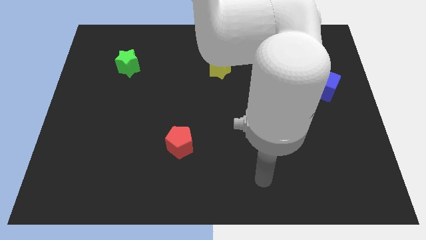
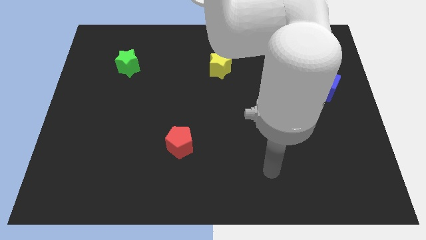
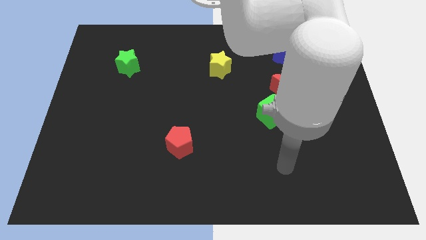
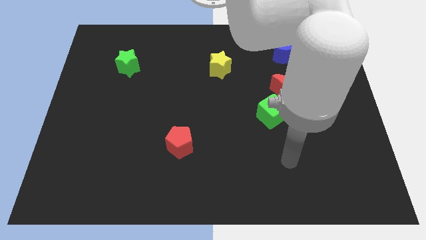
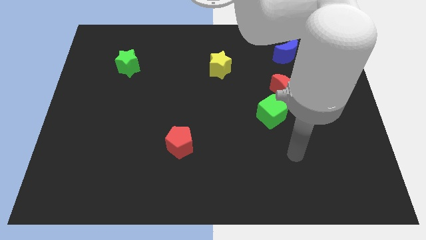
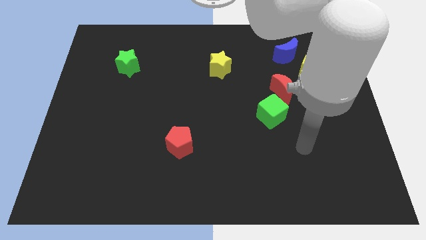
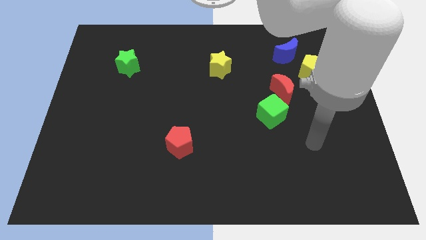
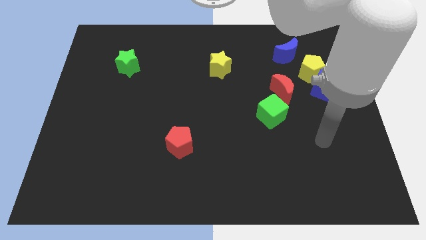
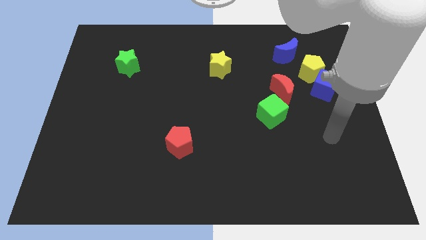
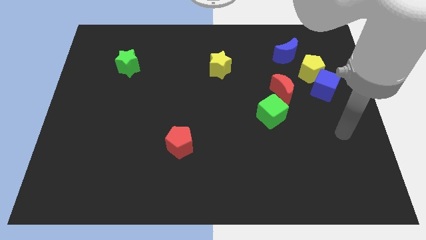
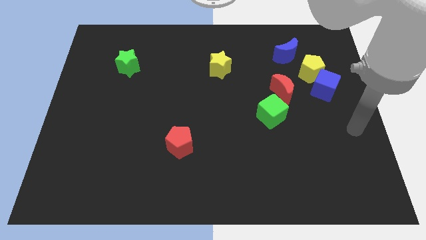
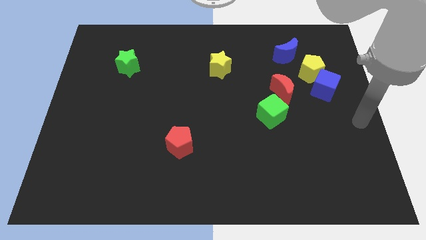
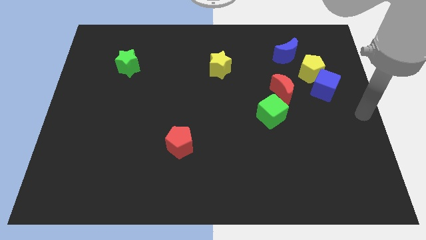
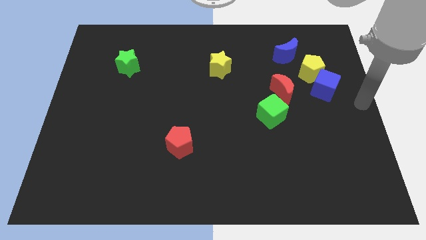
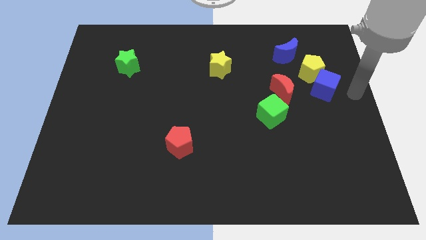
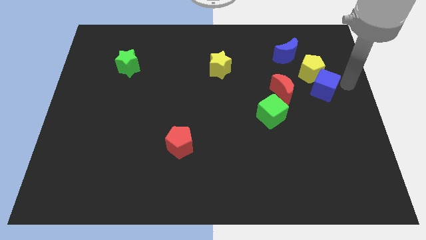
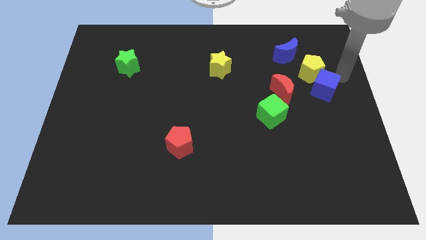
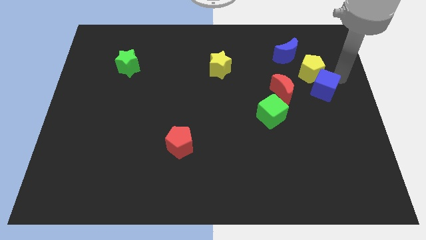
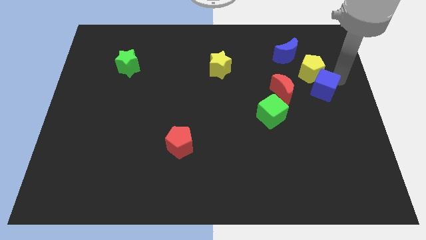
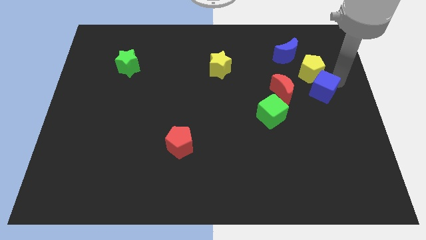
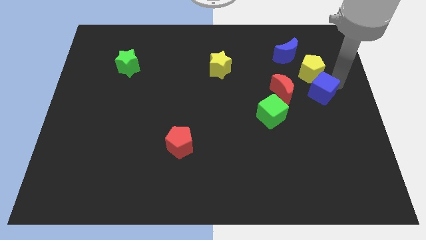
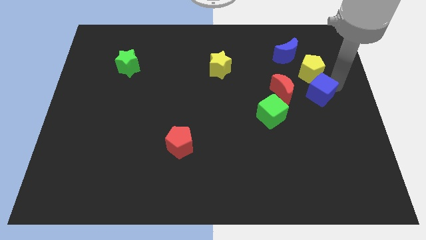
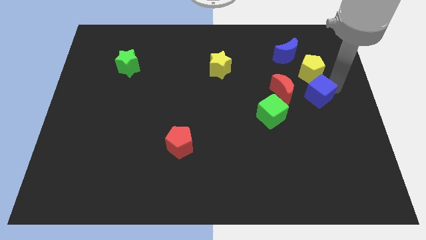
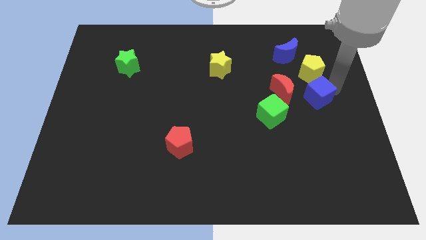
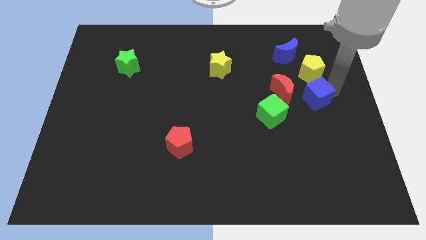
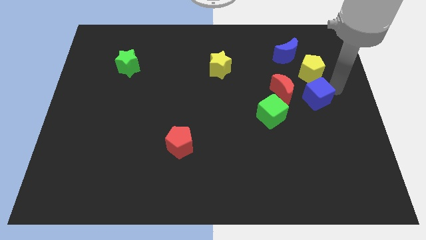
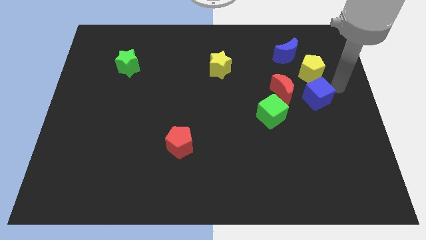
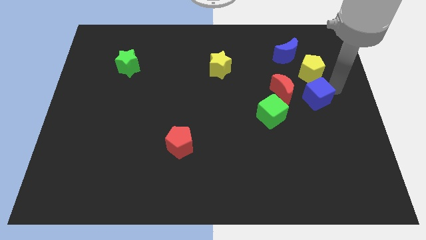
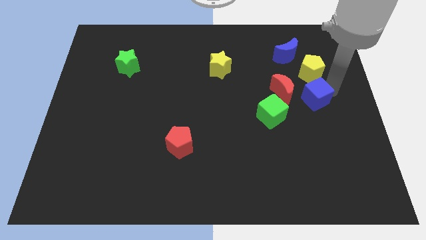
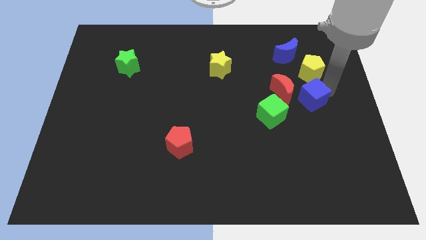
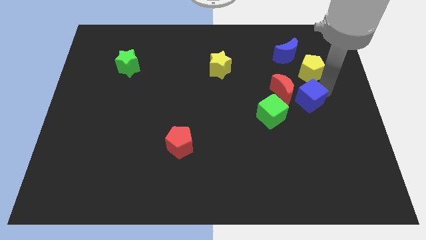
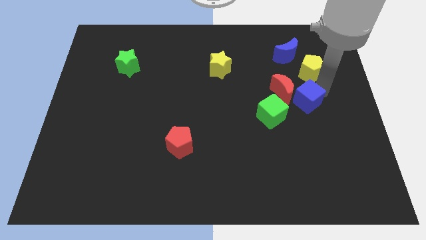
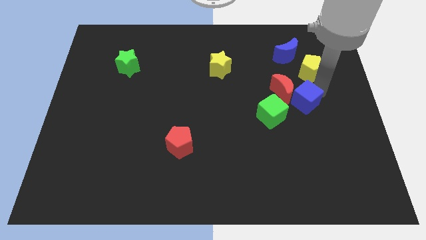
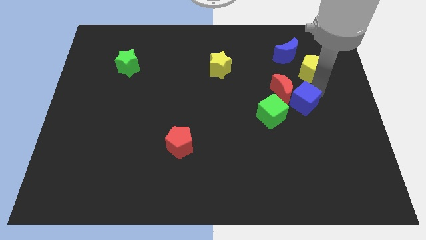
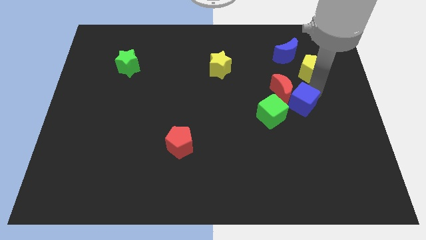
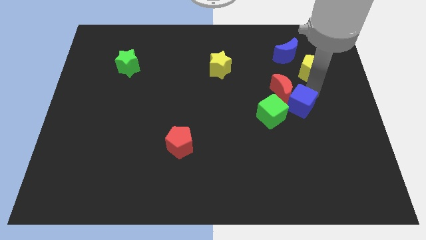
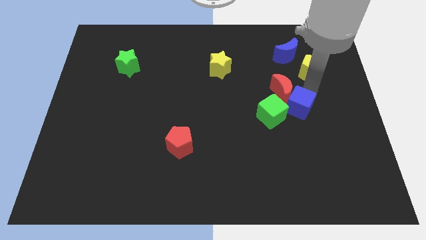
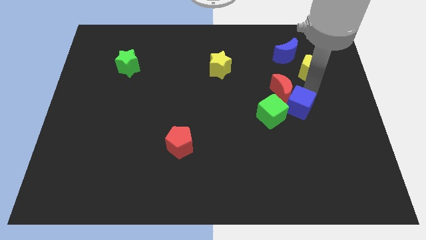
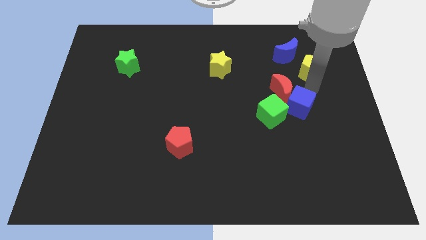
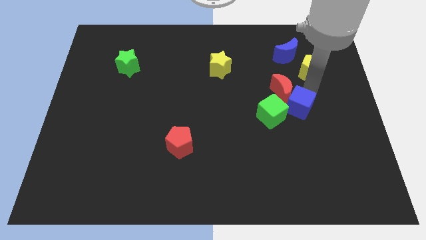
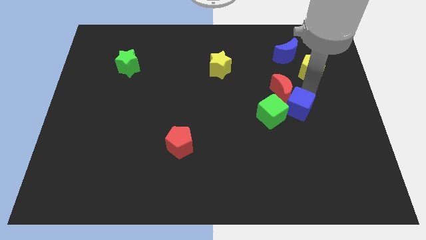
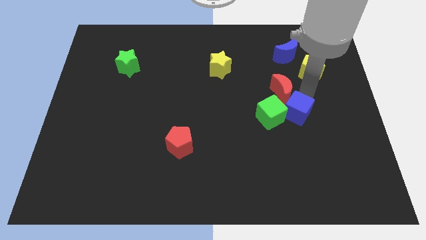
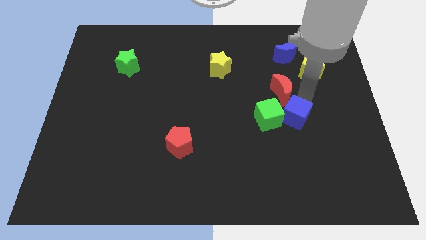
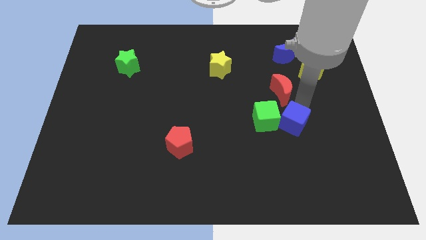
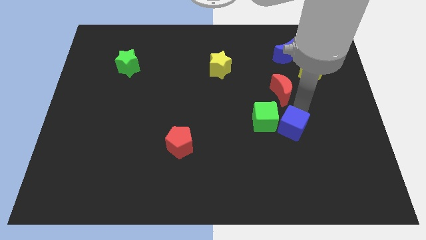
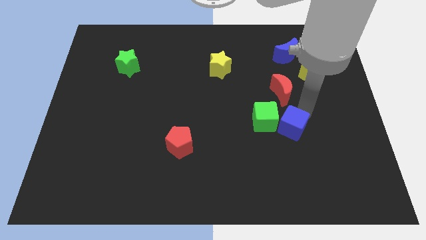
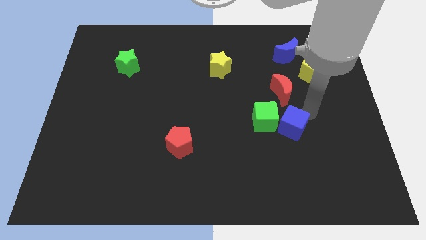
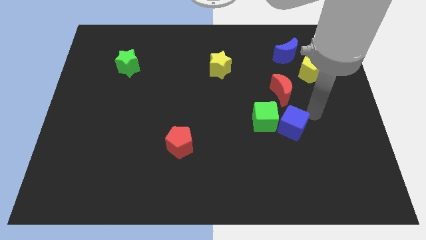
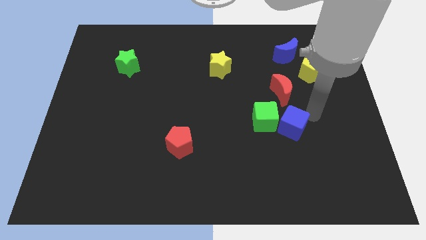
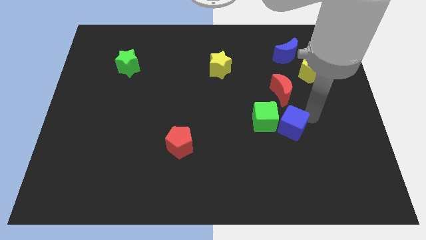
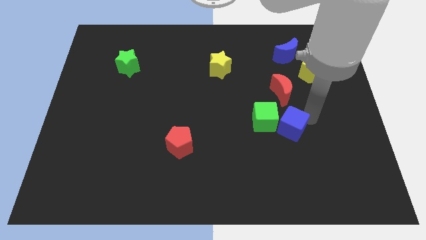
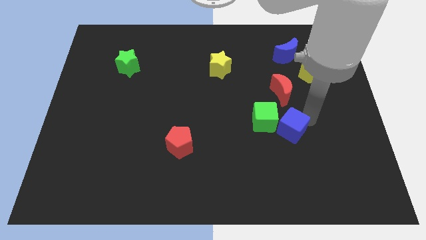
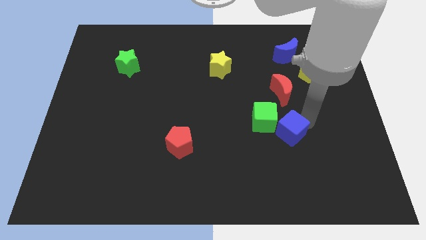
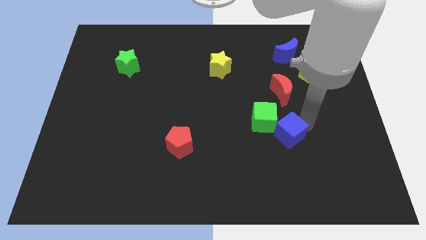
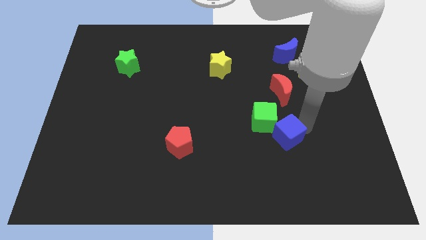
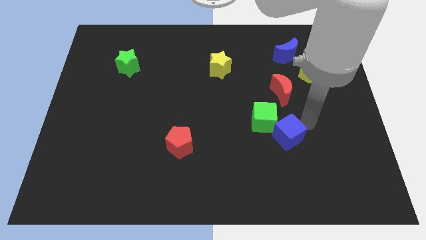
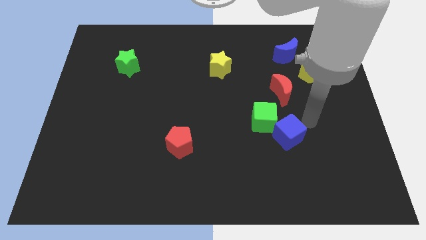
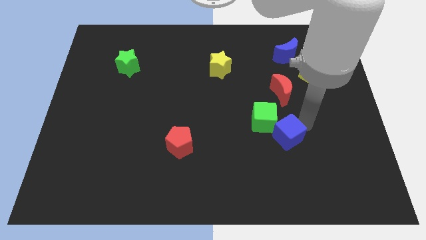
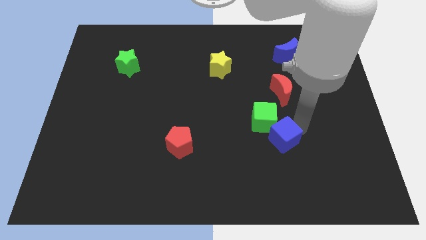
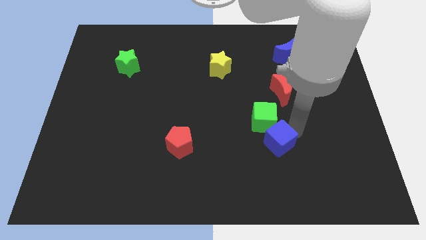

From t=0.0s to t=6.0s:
slide the blue cube down and left

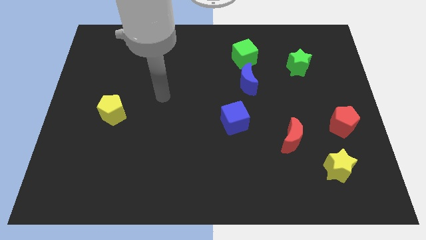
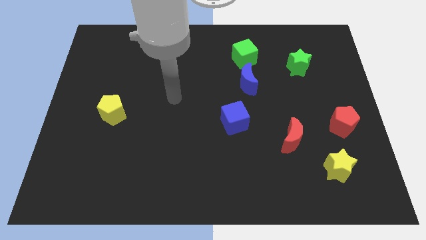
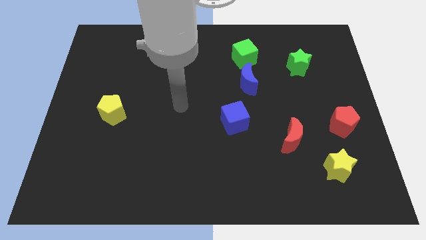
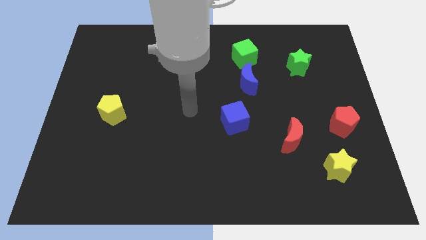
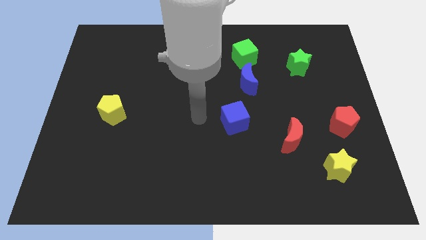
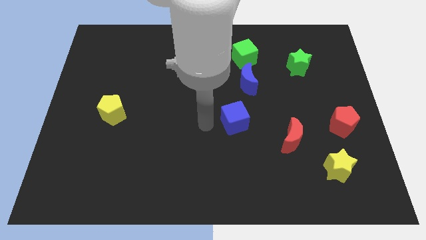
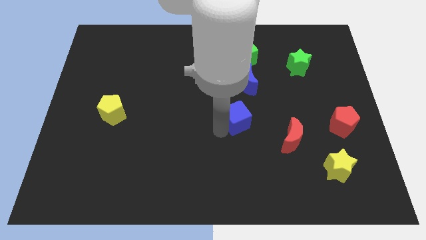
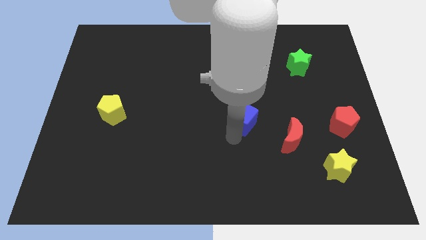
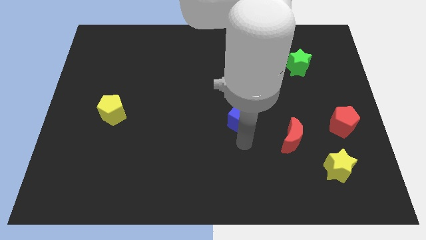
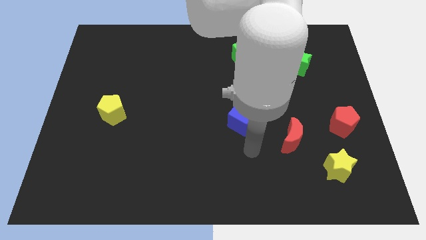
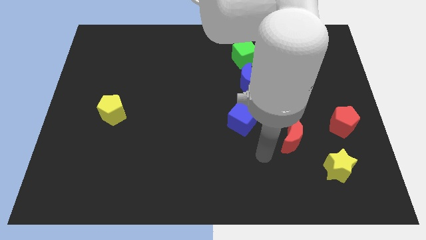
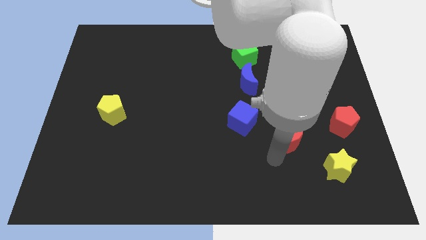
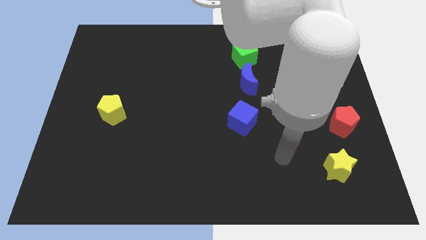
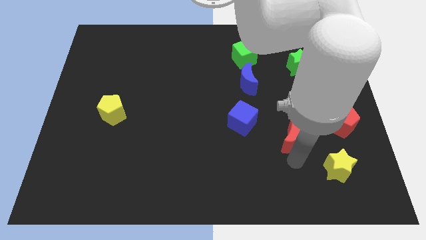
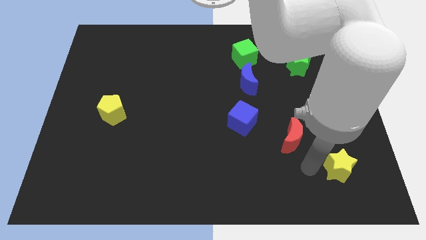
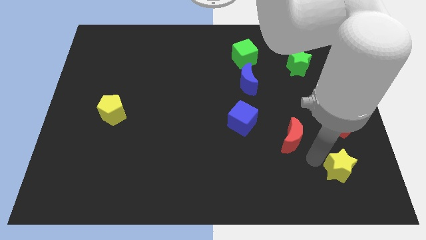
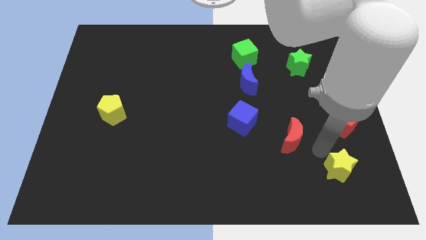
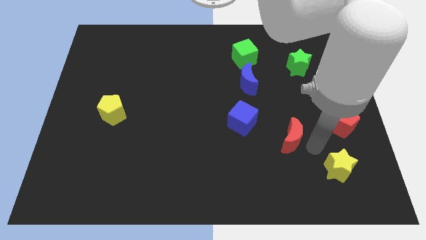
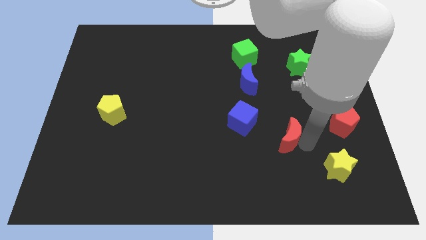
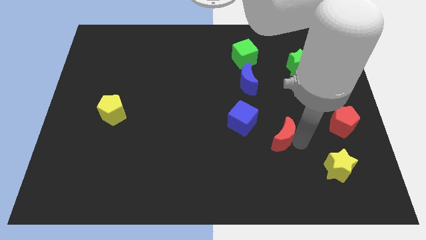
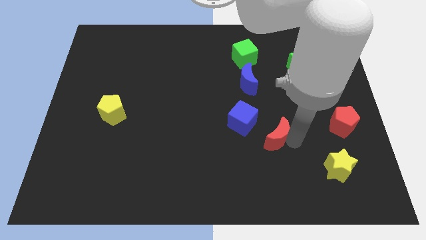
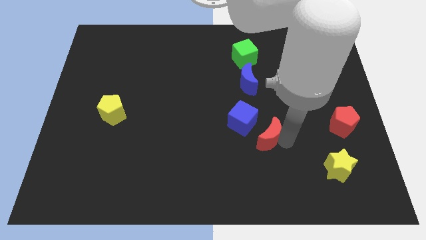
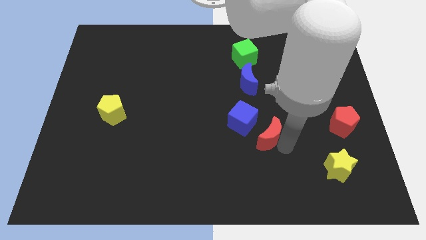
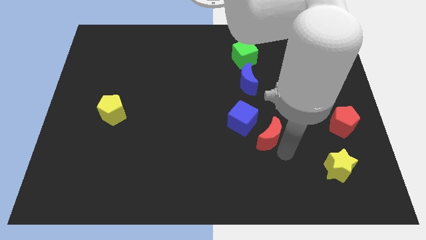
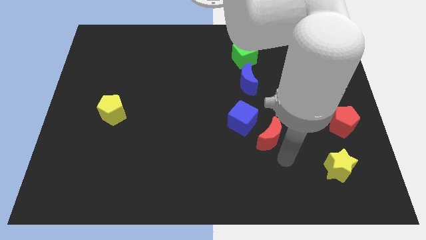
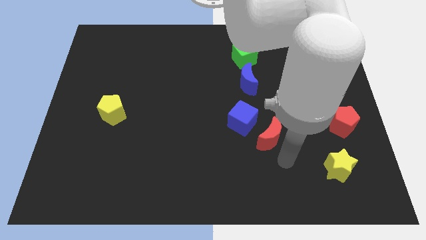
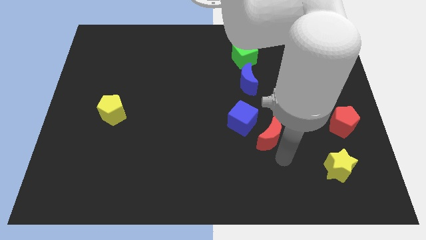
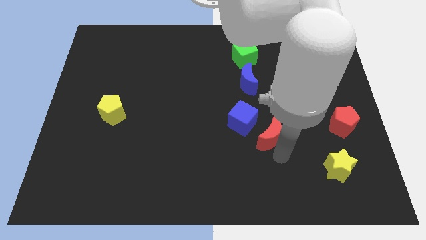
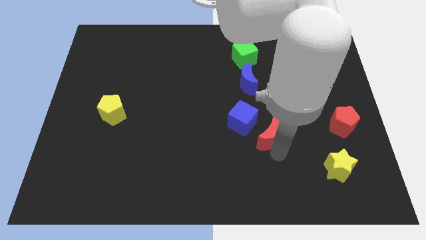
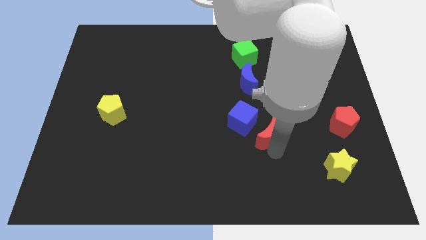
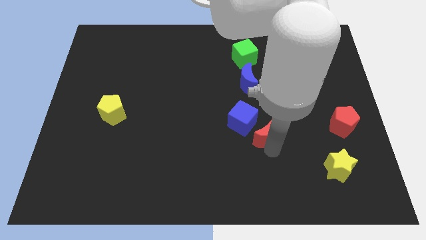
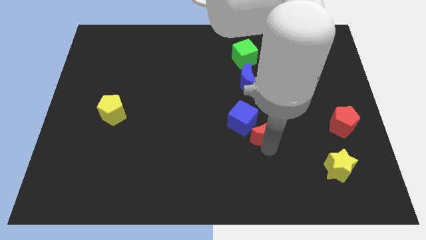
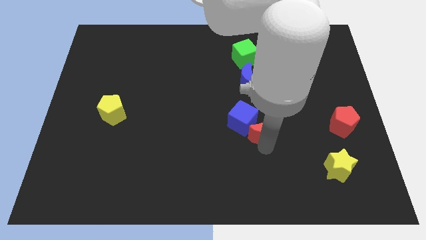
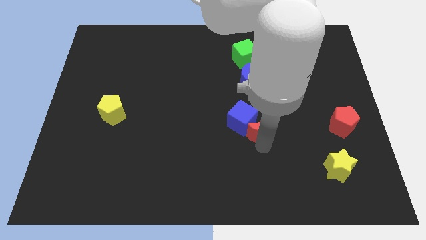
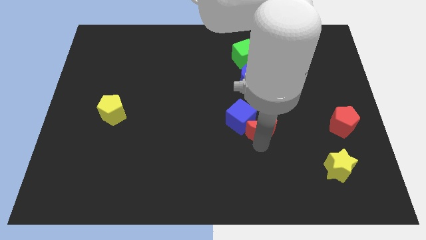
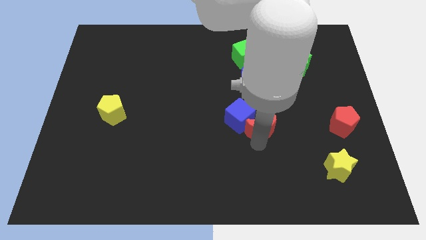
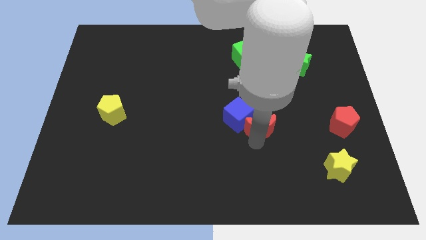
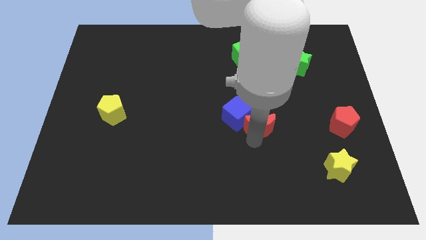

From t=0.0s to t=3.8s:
move the red moon somewhat upwards and left diagonally
